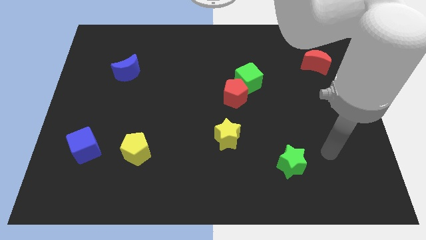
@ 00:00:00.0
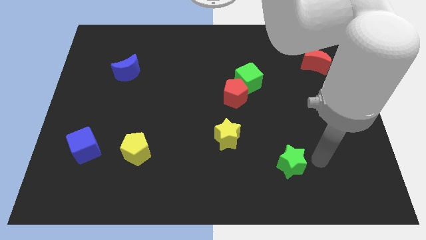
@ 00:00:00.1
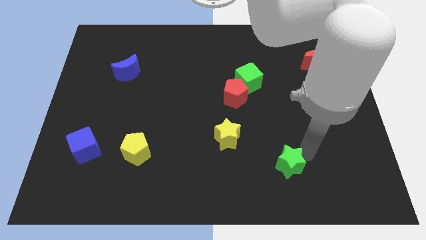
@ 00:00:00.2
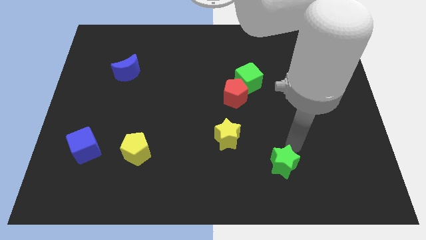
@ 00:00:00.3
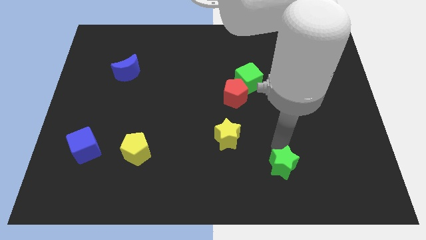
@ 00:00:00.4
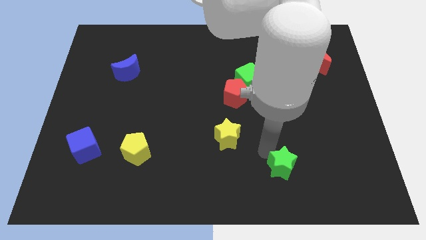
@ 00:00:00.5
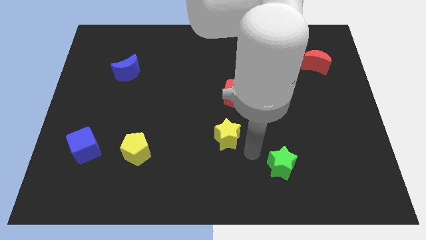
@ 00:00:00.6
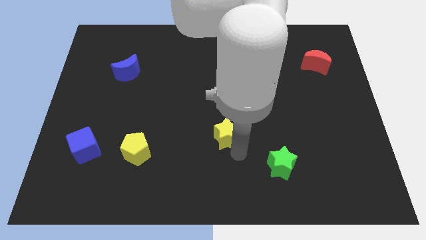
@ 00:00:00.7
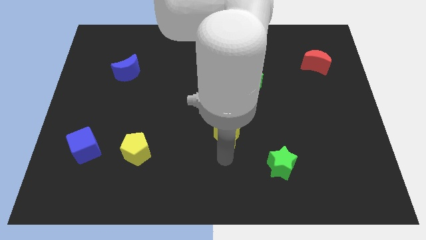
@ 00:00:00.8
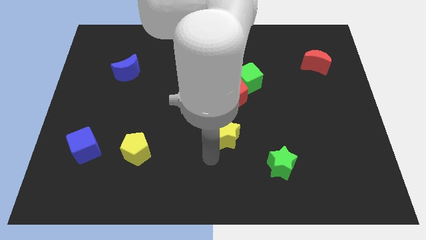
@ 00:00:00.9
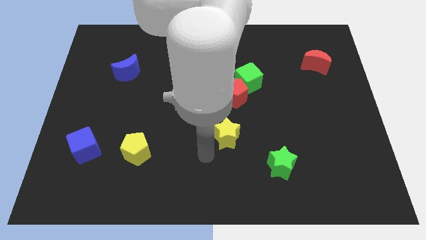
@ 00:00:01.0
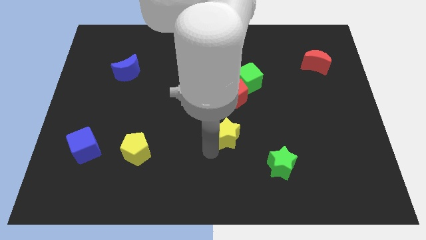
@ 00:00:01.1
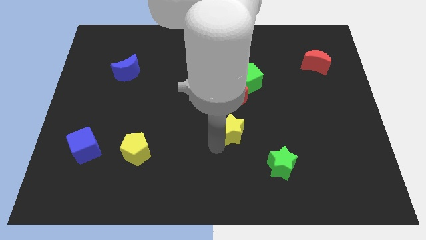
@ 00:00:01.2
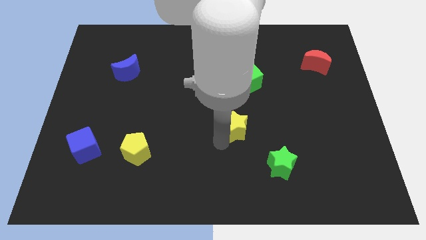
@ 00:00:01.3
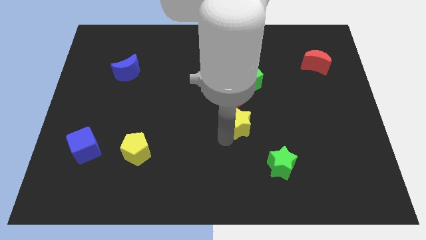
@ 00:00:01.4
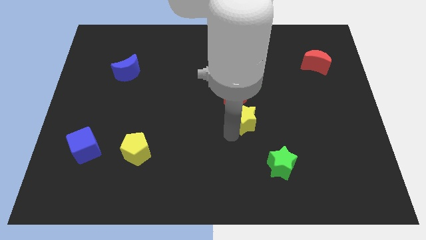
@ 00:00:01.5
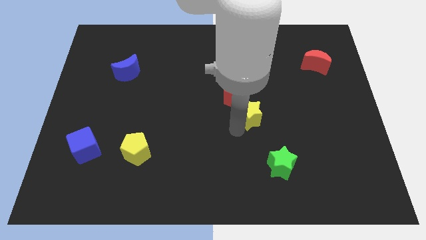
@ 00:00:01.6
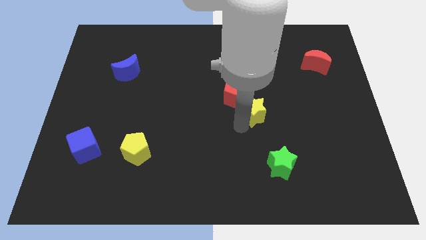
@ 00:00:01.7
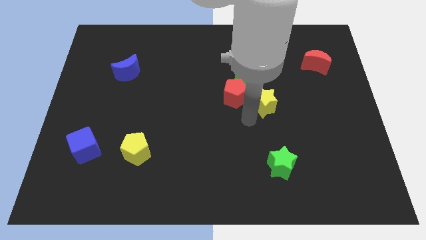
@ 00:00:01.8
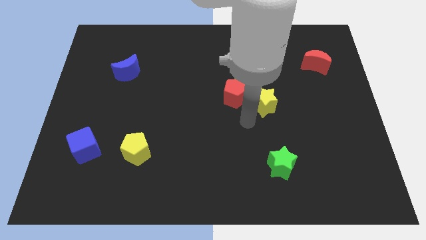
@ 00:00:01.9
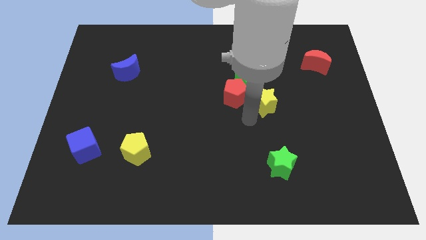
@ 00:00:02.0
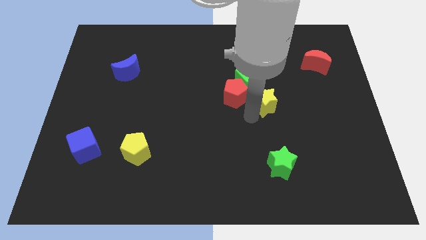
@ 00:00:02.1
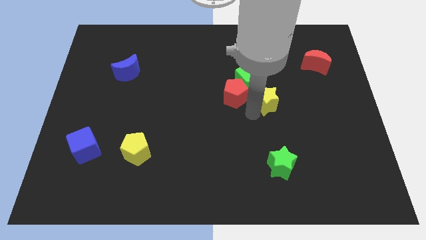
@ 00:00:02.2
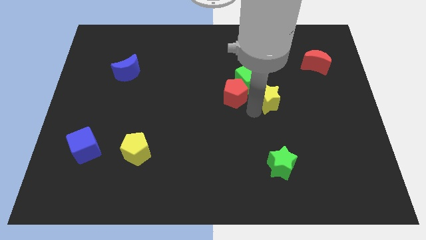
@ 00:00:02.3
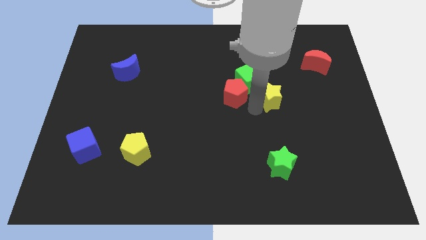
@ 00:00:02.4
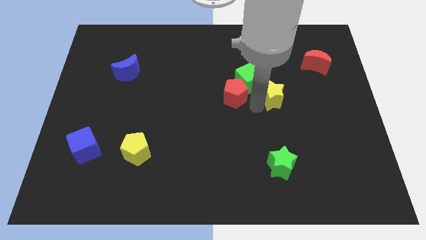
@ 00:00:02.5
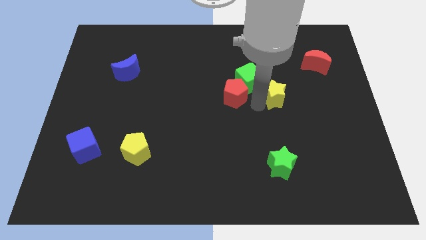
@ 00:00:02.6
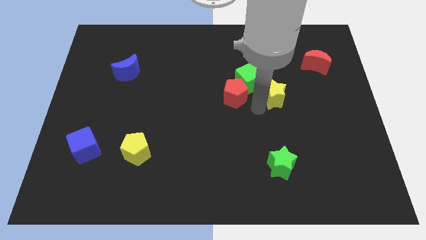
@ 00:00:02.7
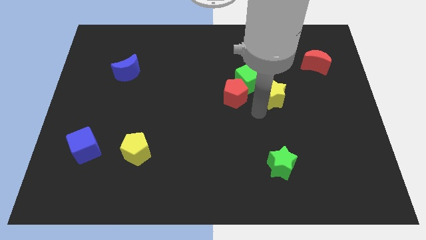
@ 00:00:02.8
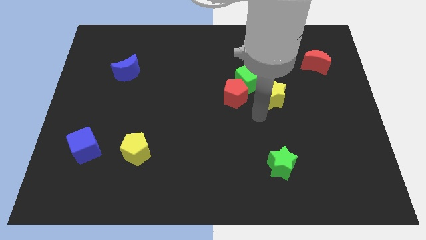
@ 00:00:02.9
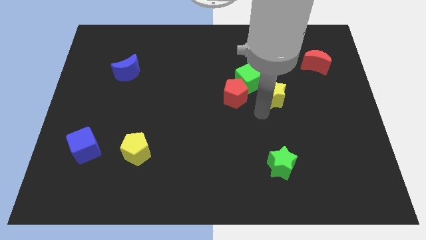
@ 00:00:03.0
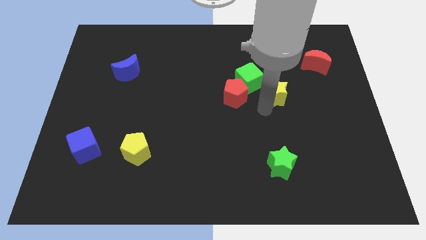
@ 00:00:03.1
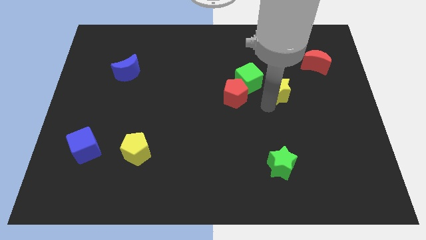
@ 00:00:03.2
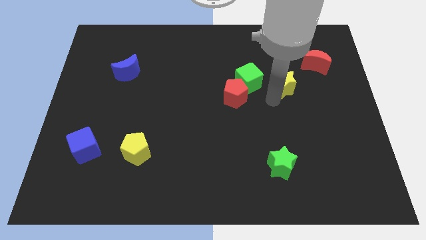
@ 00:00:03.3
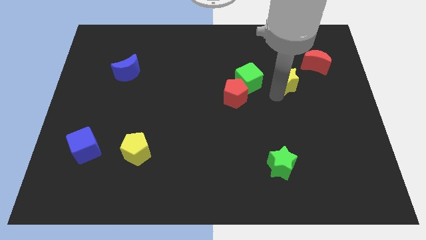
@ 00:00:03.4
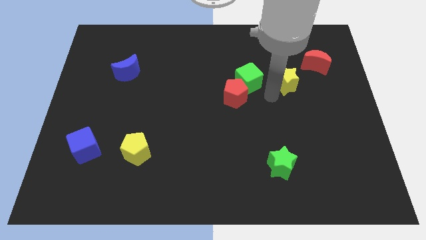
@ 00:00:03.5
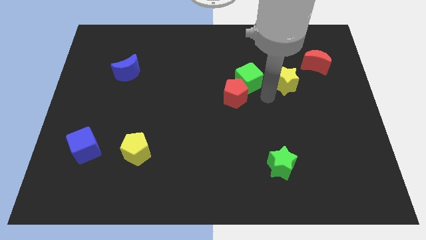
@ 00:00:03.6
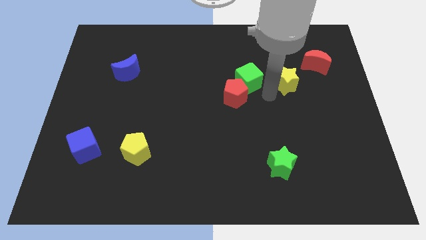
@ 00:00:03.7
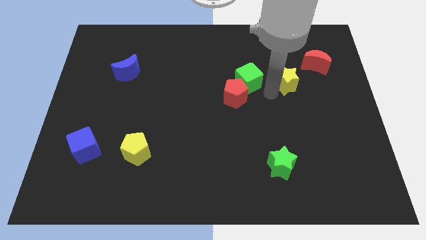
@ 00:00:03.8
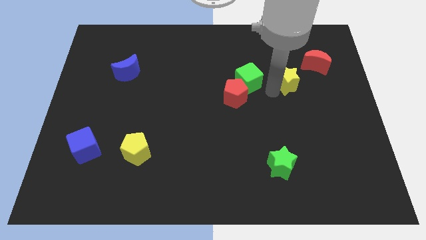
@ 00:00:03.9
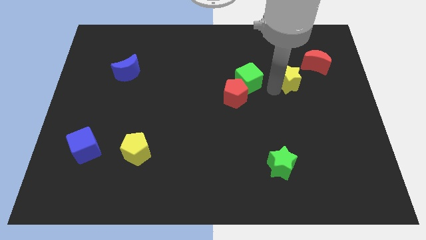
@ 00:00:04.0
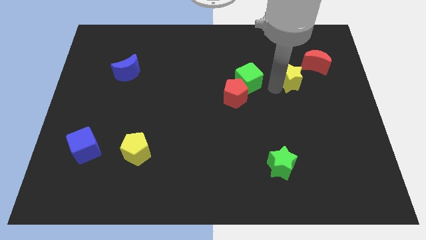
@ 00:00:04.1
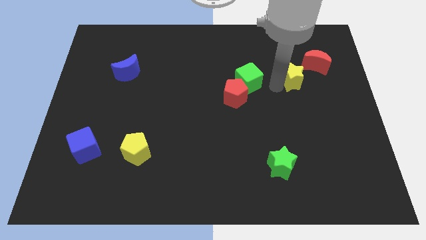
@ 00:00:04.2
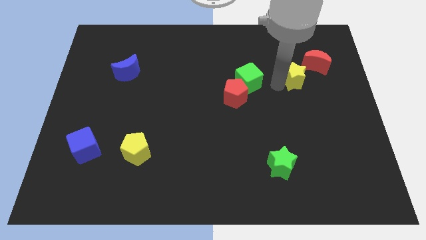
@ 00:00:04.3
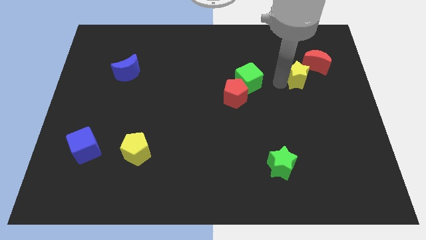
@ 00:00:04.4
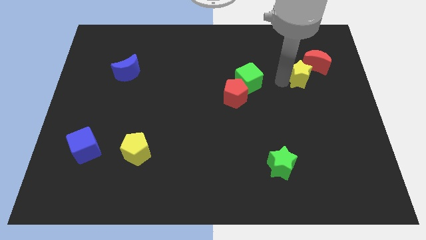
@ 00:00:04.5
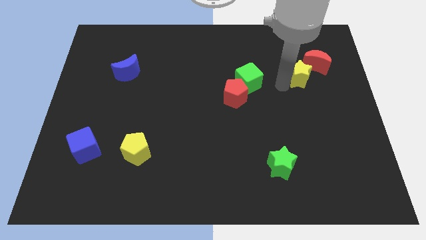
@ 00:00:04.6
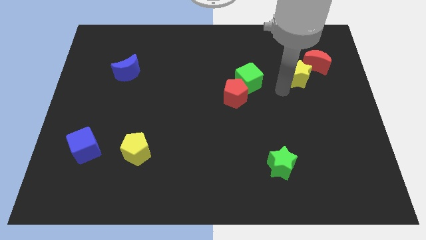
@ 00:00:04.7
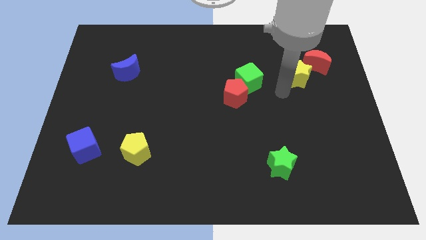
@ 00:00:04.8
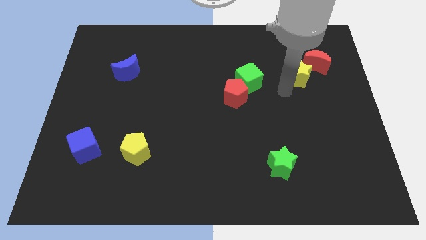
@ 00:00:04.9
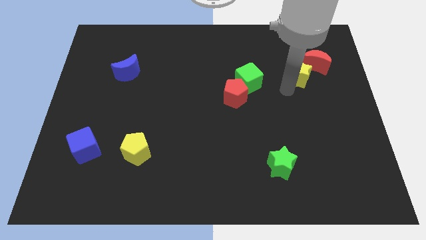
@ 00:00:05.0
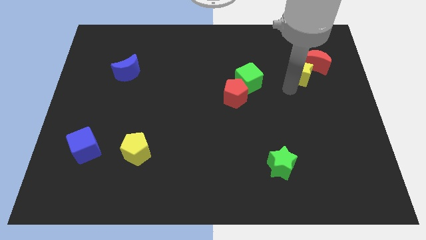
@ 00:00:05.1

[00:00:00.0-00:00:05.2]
move the yellow star next to the red moon

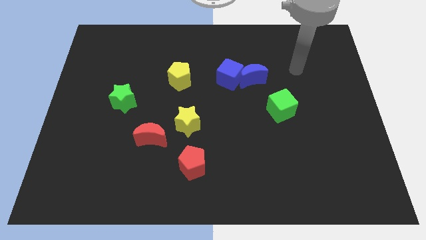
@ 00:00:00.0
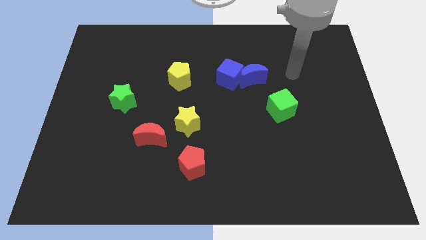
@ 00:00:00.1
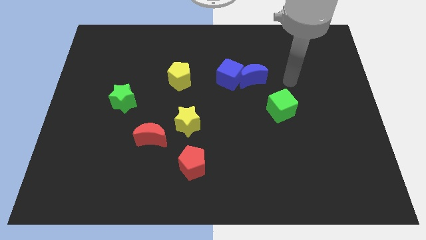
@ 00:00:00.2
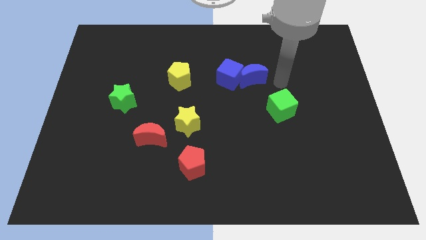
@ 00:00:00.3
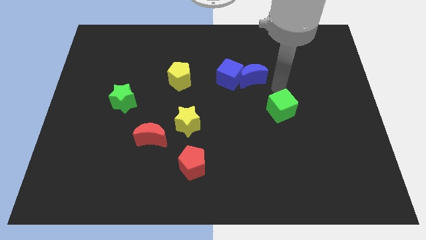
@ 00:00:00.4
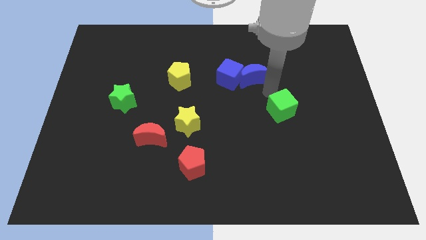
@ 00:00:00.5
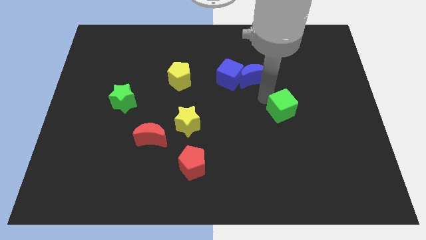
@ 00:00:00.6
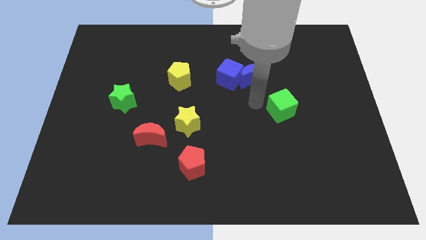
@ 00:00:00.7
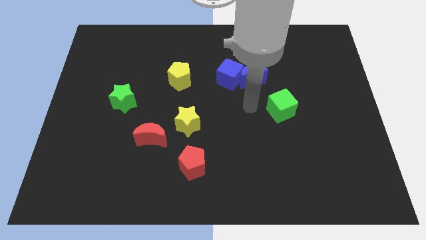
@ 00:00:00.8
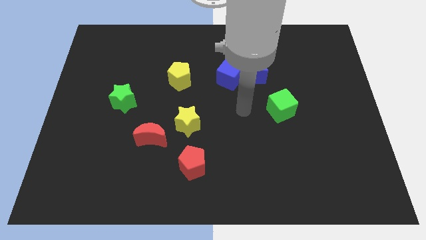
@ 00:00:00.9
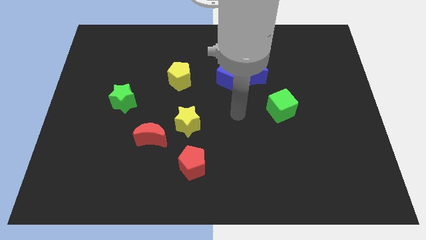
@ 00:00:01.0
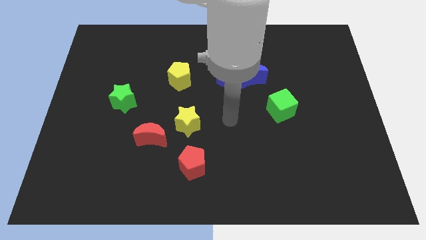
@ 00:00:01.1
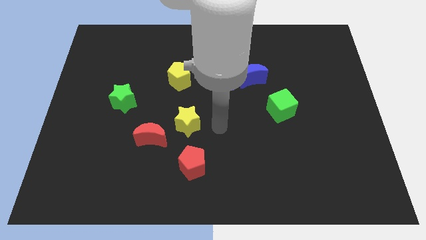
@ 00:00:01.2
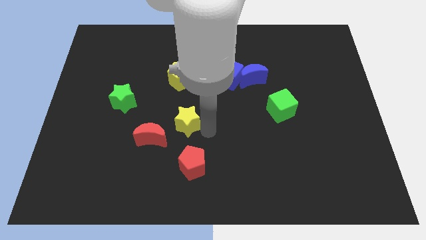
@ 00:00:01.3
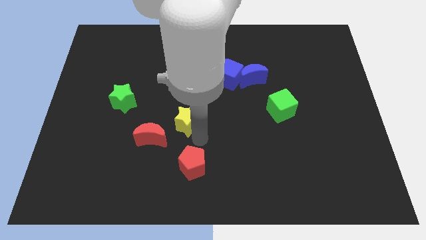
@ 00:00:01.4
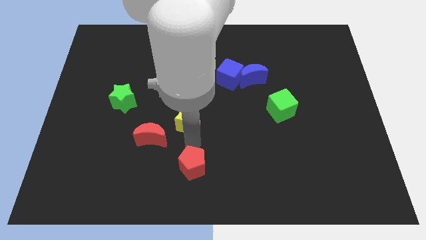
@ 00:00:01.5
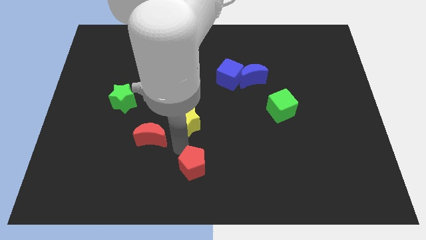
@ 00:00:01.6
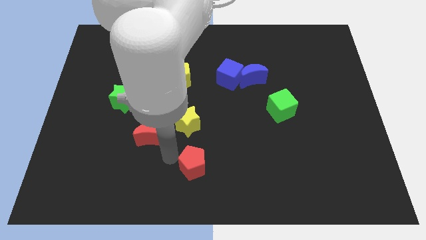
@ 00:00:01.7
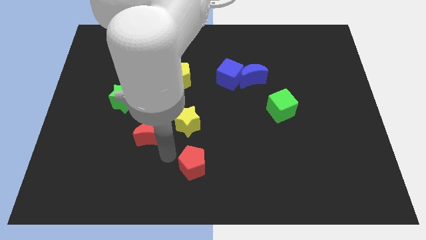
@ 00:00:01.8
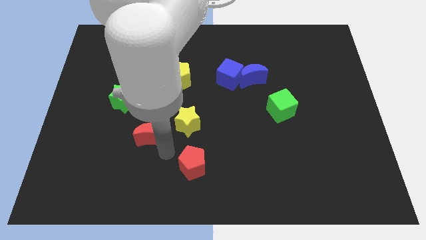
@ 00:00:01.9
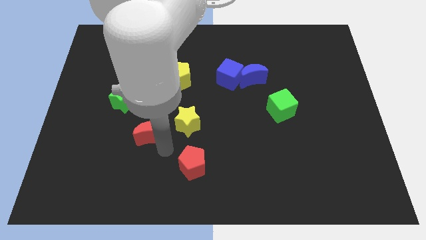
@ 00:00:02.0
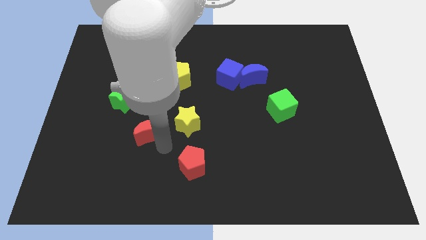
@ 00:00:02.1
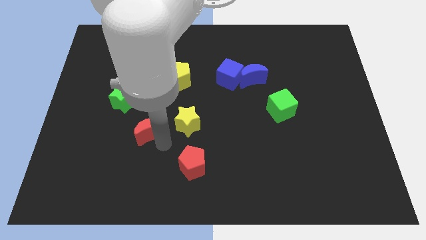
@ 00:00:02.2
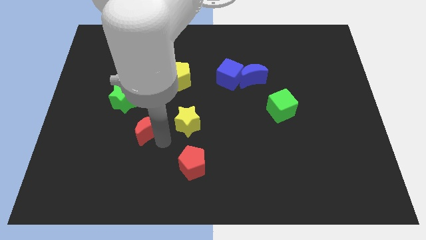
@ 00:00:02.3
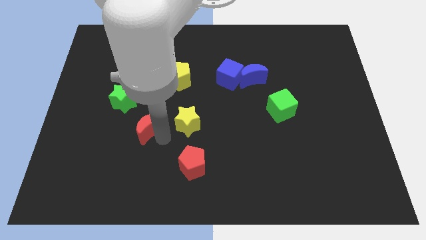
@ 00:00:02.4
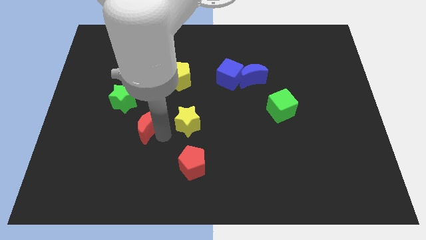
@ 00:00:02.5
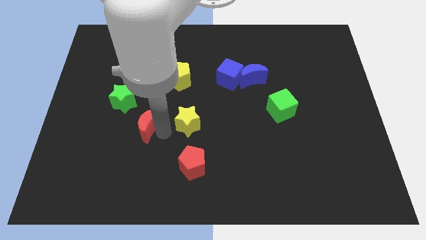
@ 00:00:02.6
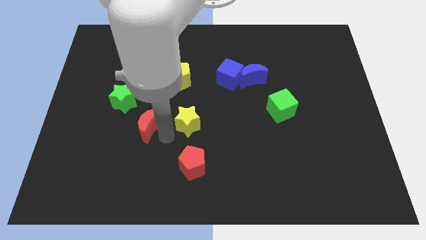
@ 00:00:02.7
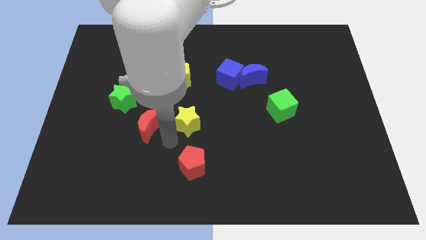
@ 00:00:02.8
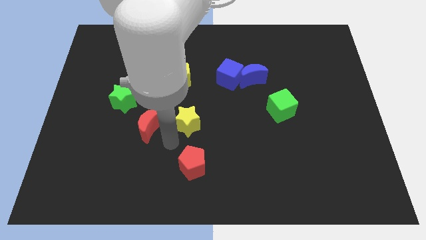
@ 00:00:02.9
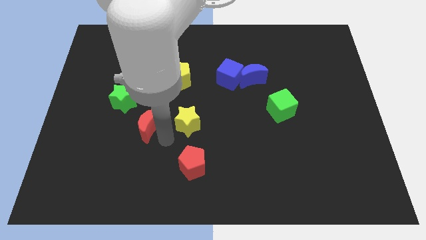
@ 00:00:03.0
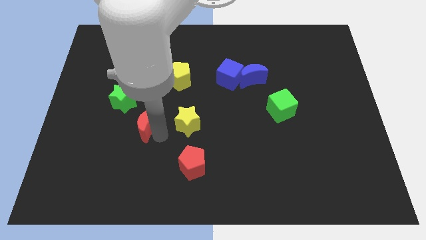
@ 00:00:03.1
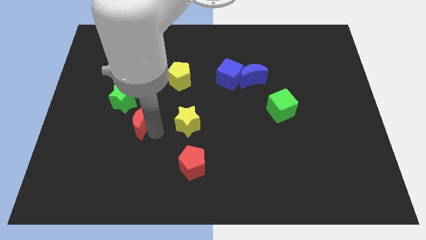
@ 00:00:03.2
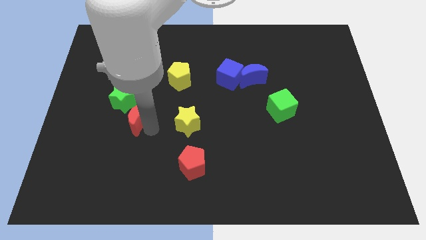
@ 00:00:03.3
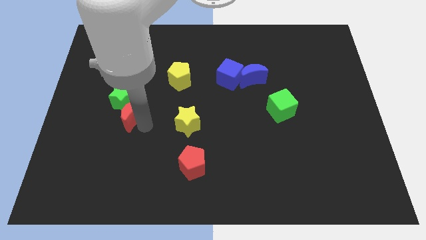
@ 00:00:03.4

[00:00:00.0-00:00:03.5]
put the red moon to the green star
